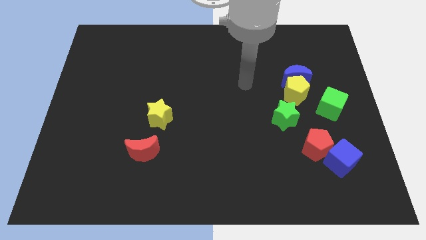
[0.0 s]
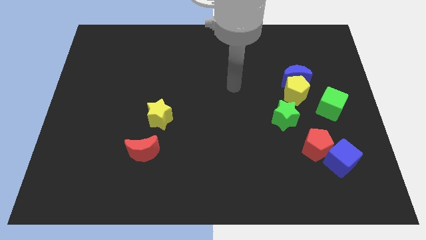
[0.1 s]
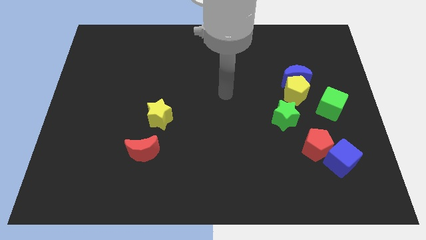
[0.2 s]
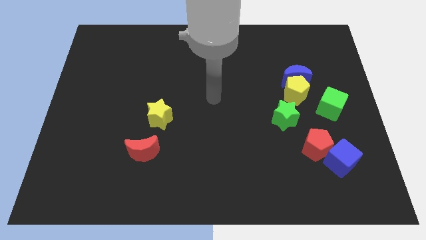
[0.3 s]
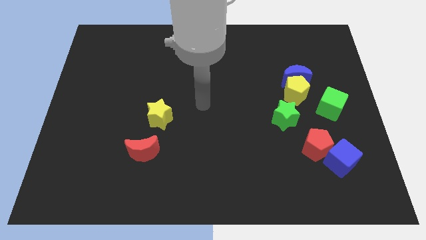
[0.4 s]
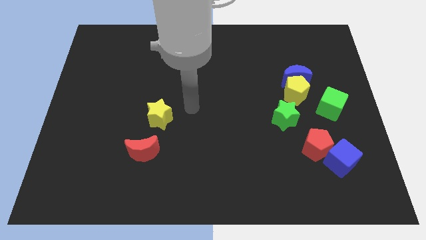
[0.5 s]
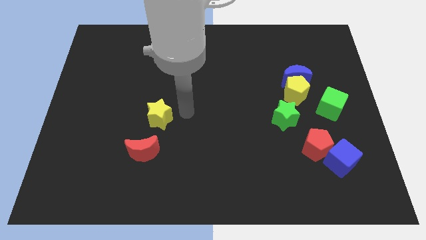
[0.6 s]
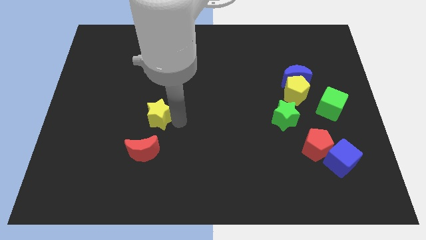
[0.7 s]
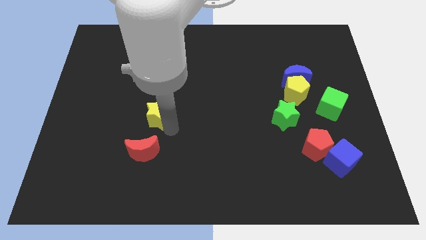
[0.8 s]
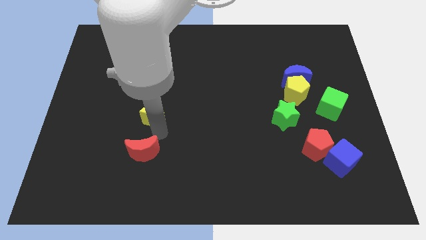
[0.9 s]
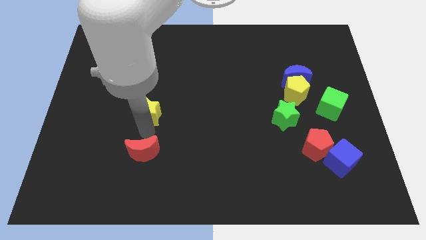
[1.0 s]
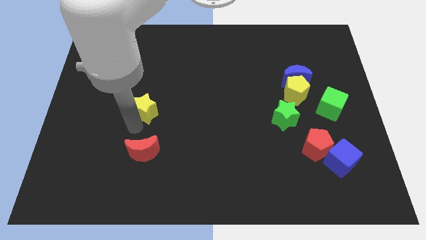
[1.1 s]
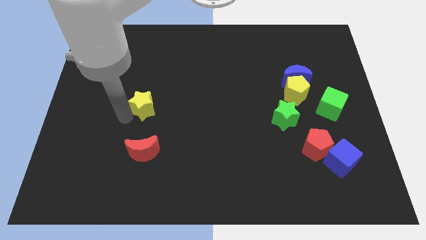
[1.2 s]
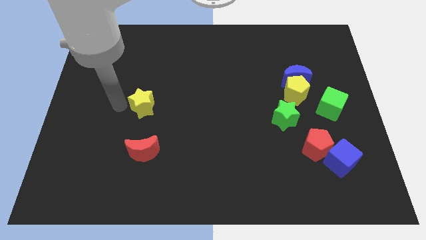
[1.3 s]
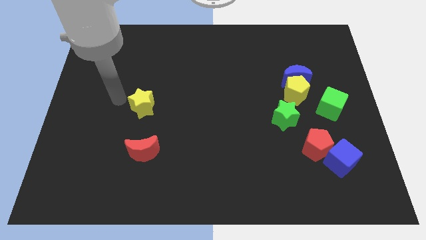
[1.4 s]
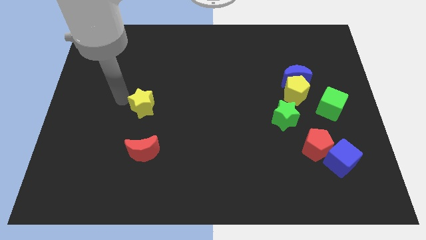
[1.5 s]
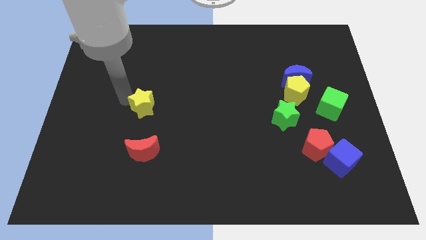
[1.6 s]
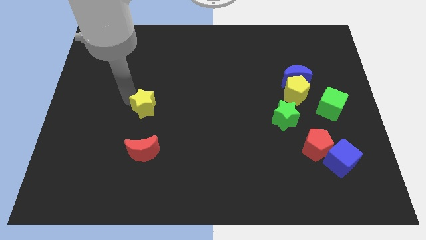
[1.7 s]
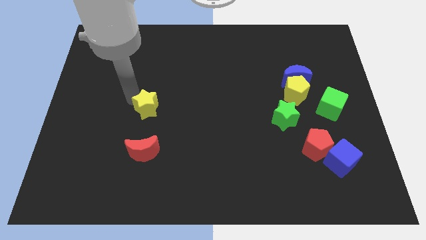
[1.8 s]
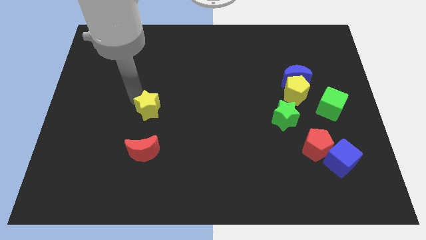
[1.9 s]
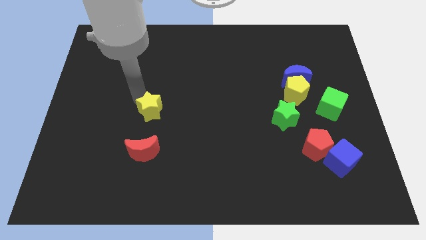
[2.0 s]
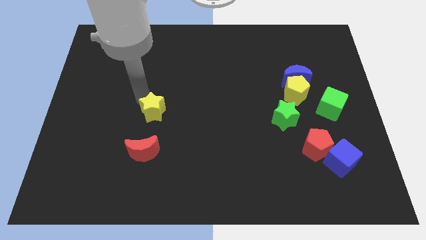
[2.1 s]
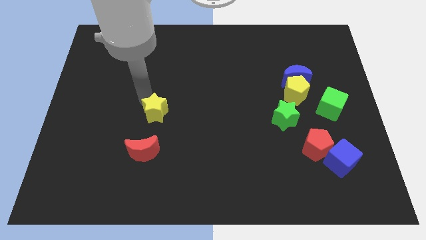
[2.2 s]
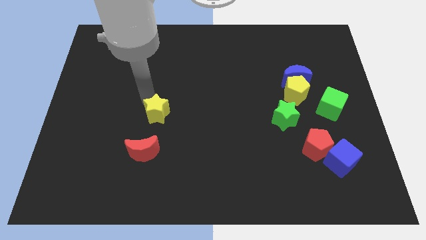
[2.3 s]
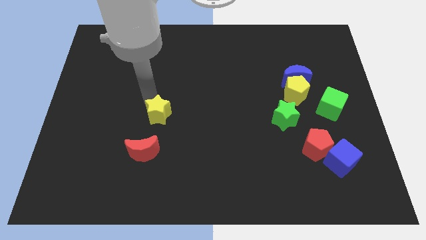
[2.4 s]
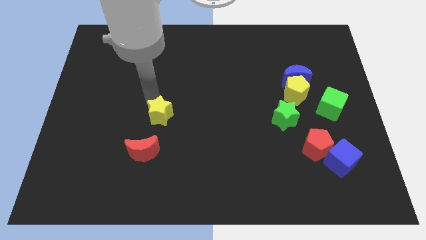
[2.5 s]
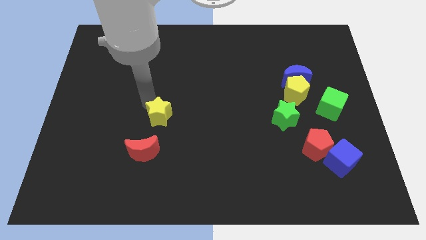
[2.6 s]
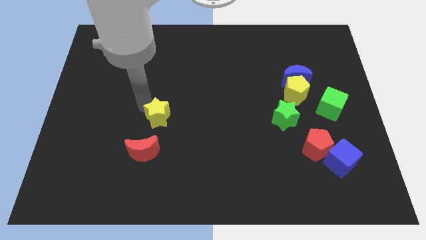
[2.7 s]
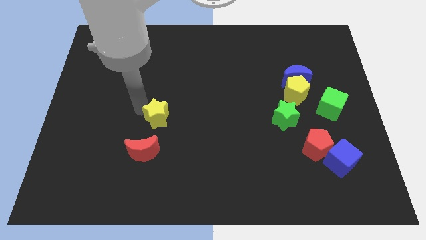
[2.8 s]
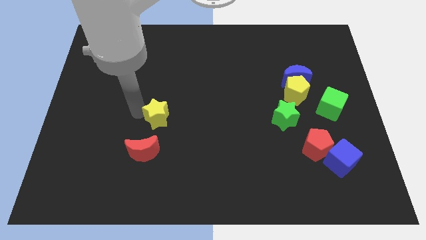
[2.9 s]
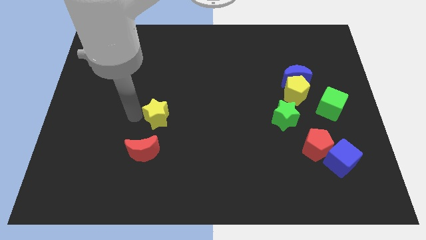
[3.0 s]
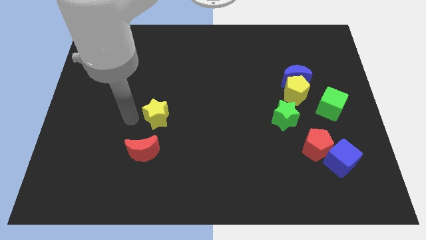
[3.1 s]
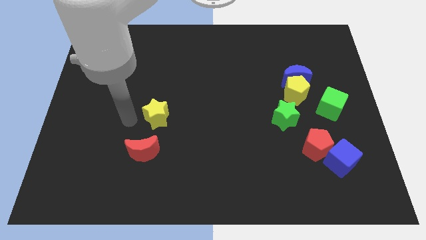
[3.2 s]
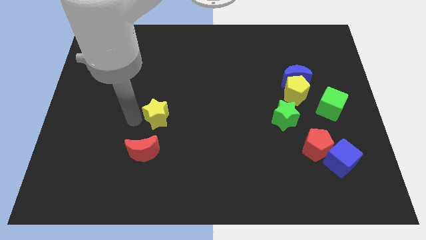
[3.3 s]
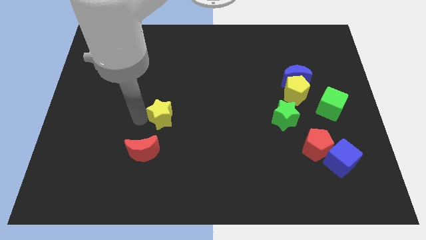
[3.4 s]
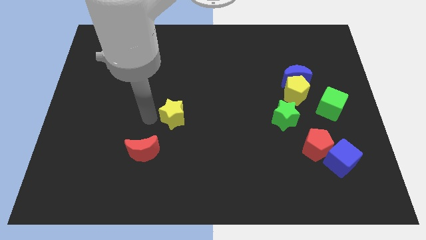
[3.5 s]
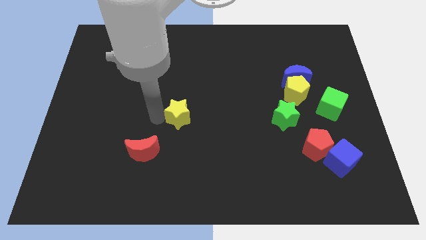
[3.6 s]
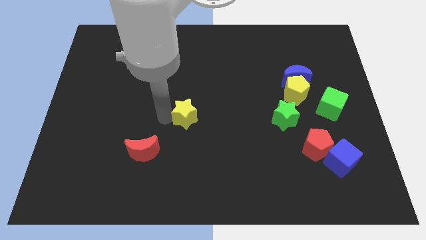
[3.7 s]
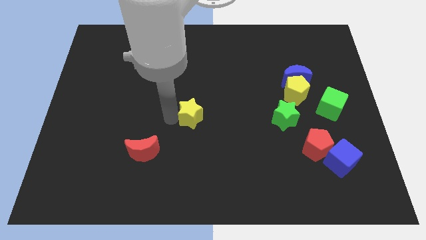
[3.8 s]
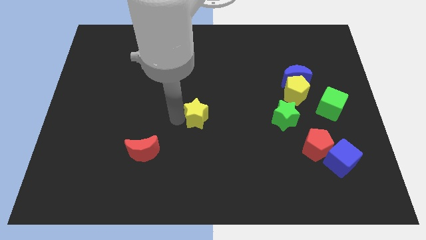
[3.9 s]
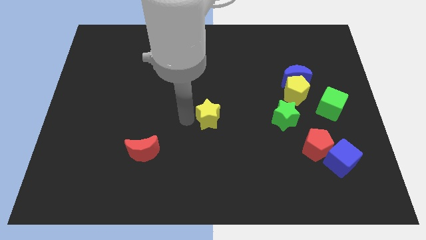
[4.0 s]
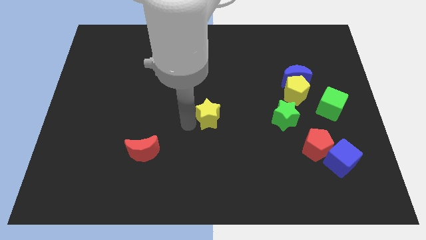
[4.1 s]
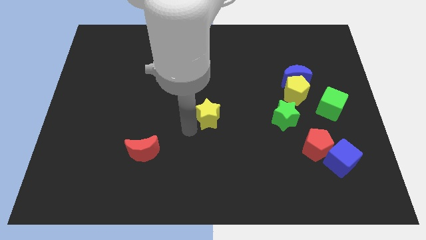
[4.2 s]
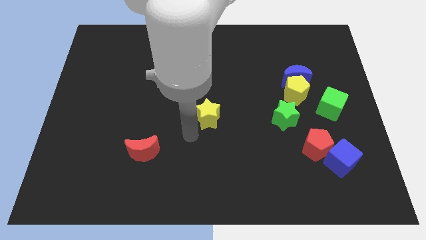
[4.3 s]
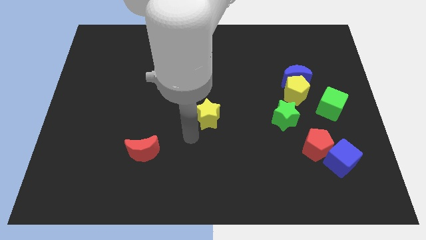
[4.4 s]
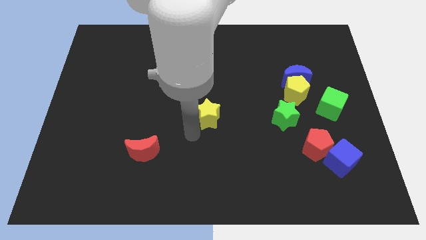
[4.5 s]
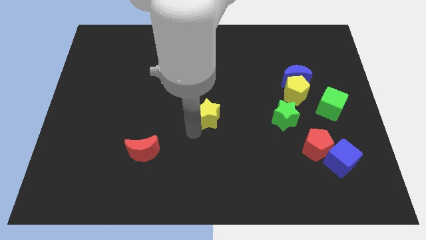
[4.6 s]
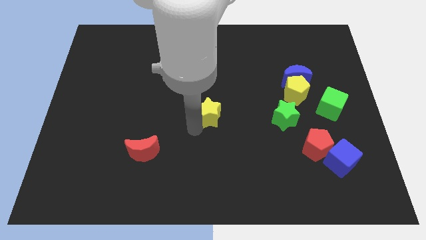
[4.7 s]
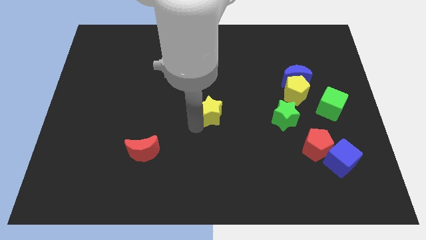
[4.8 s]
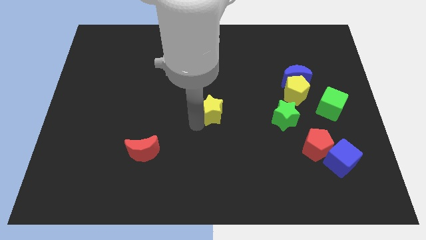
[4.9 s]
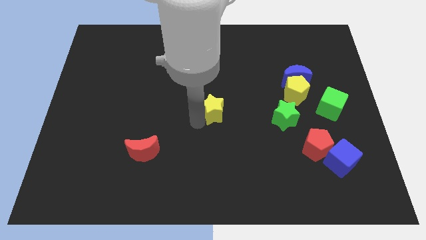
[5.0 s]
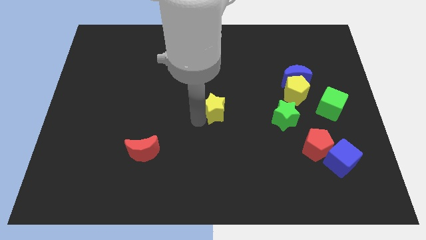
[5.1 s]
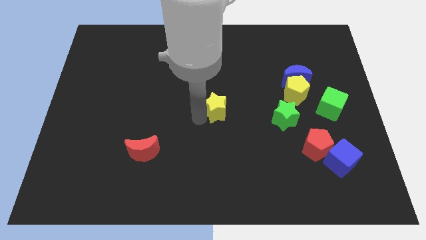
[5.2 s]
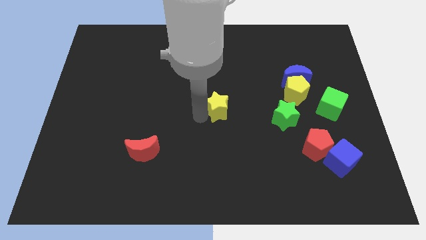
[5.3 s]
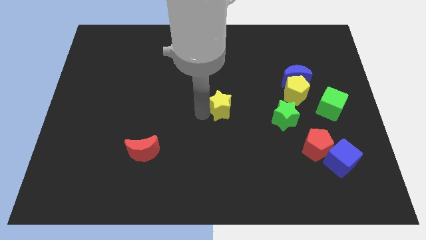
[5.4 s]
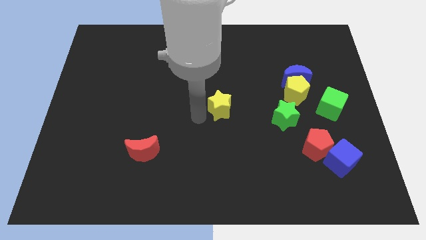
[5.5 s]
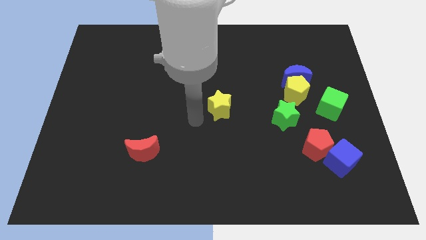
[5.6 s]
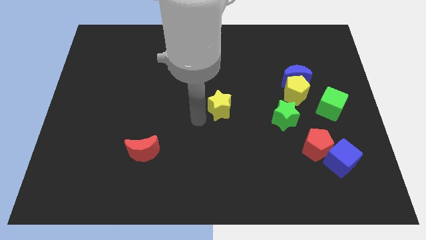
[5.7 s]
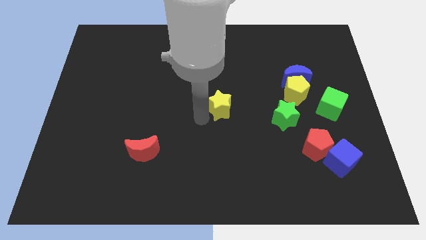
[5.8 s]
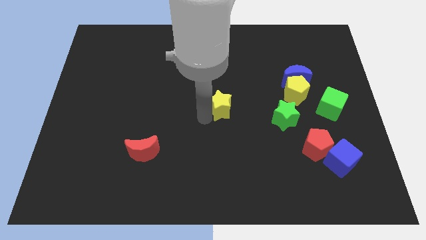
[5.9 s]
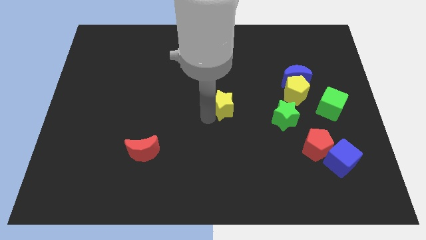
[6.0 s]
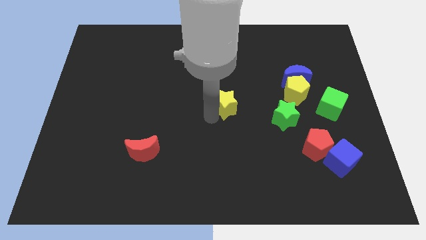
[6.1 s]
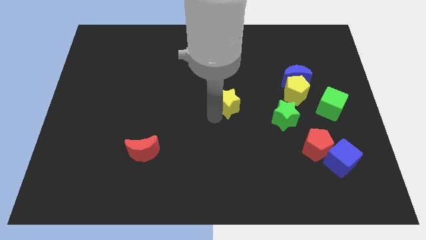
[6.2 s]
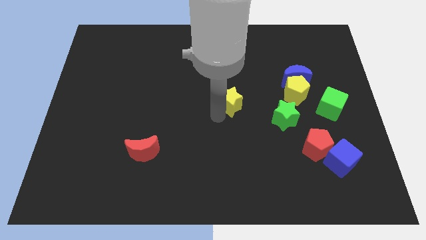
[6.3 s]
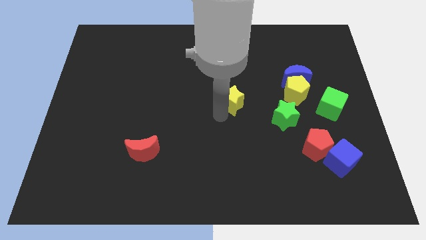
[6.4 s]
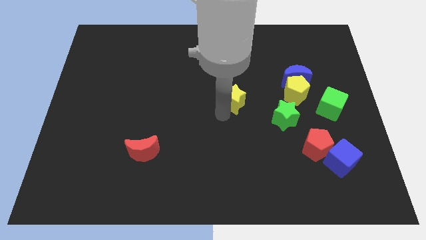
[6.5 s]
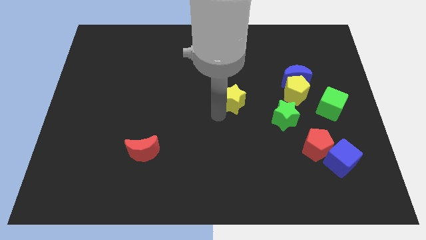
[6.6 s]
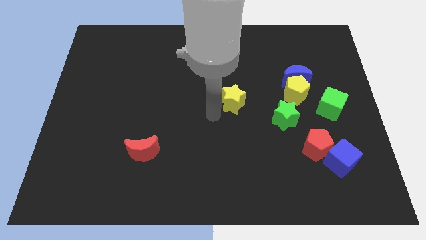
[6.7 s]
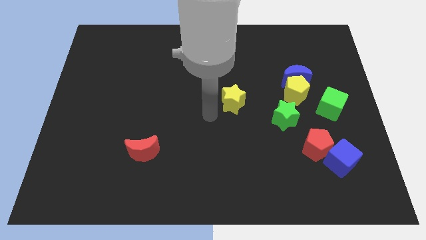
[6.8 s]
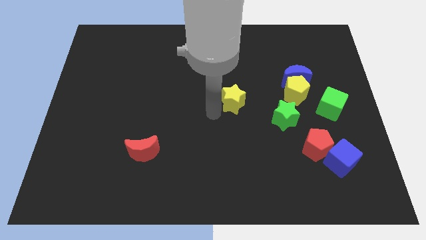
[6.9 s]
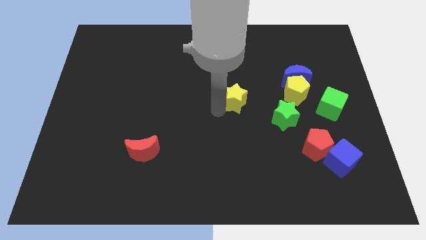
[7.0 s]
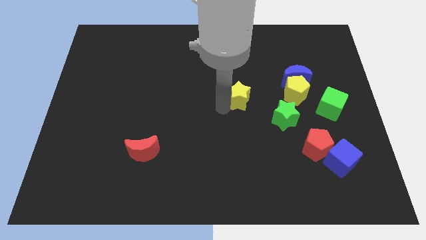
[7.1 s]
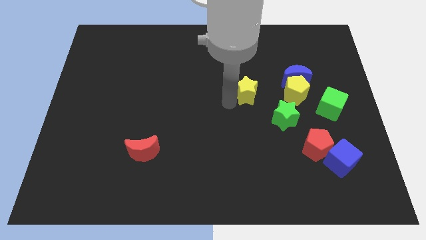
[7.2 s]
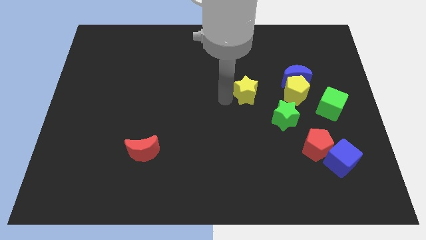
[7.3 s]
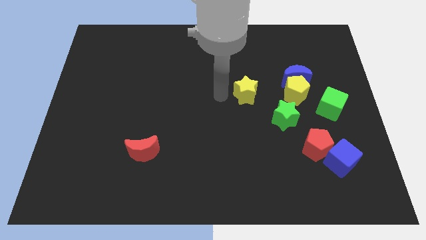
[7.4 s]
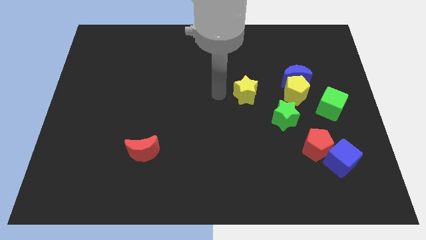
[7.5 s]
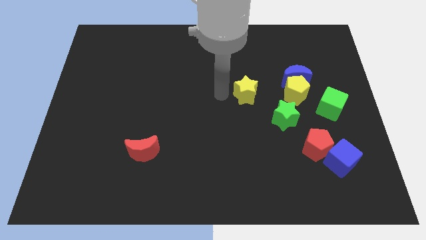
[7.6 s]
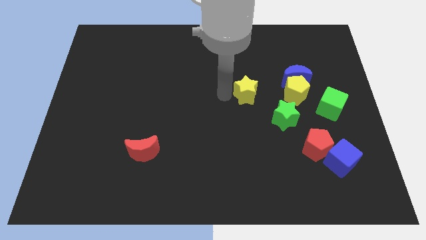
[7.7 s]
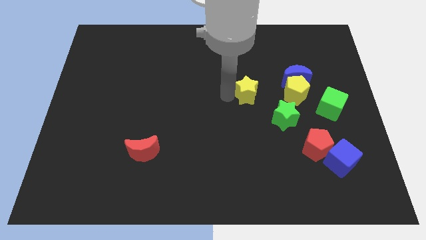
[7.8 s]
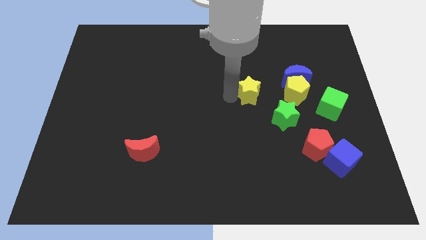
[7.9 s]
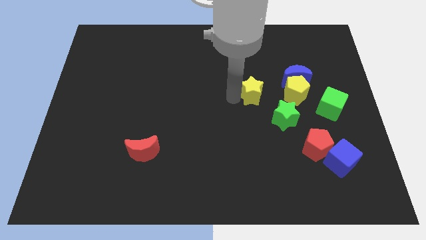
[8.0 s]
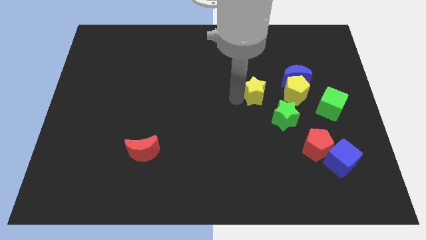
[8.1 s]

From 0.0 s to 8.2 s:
push the yellow star to the bottom left side of the blue moon
